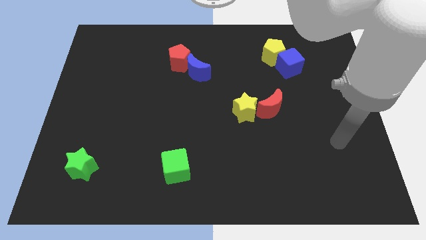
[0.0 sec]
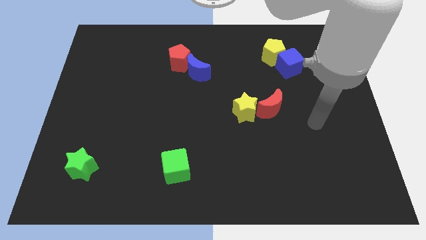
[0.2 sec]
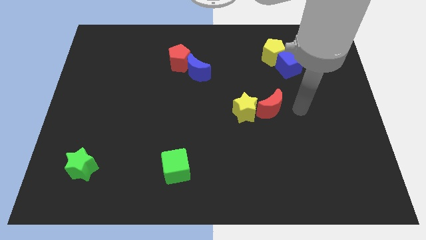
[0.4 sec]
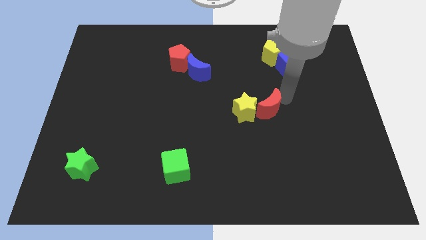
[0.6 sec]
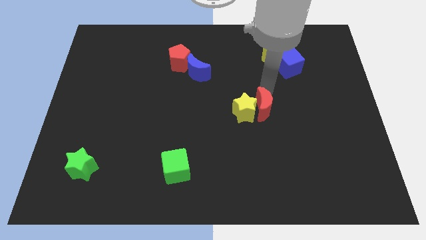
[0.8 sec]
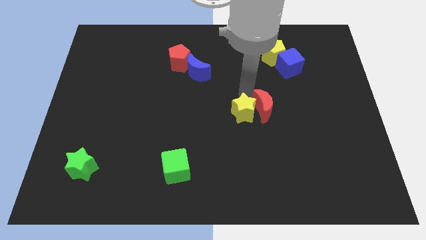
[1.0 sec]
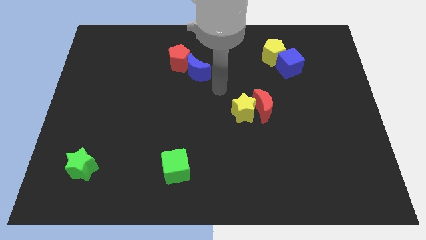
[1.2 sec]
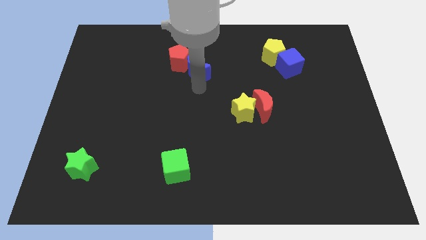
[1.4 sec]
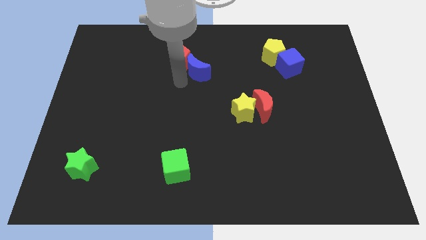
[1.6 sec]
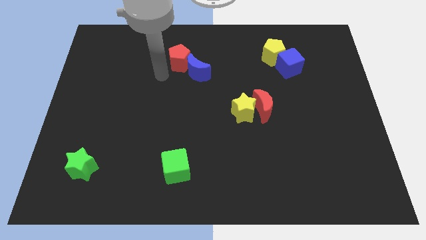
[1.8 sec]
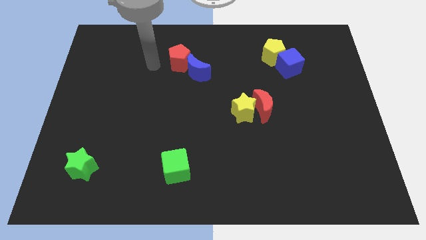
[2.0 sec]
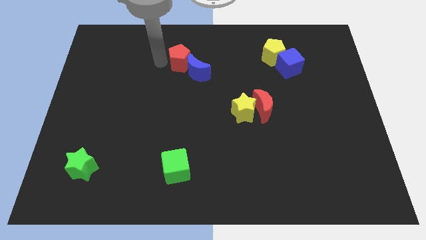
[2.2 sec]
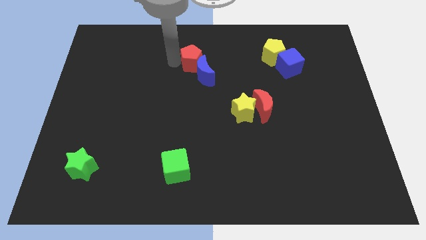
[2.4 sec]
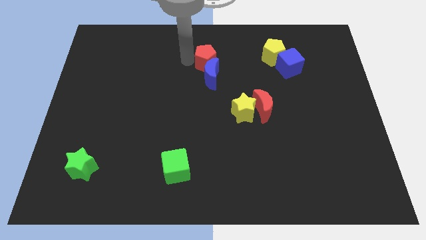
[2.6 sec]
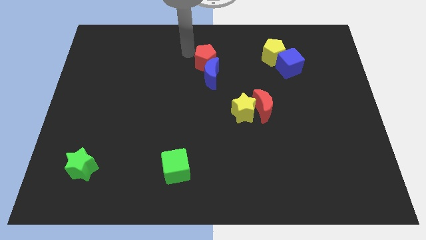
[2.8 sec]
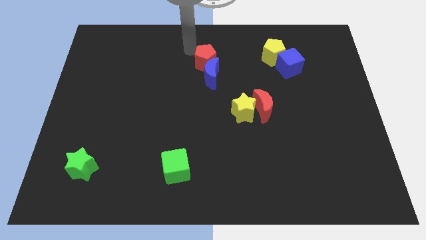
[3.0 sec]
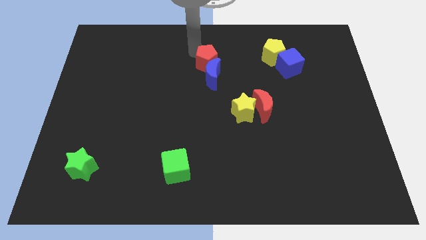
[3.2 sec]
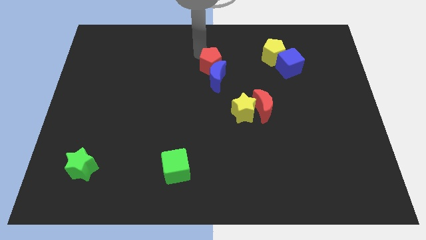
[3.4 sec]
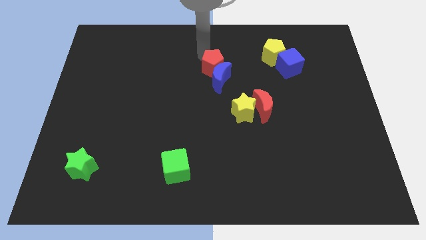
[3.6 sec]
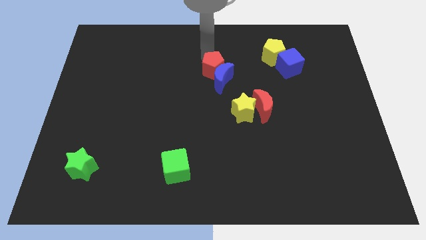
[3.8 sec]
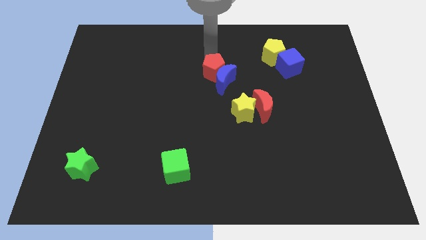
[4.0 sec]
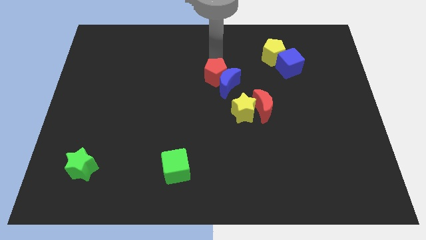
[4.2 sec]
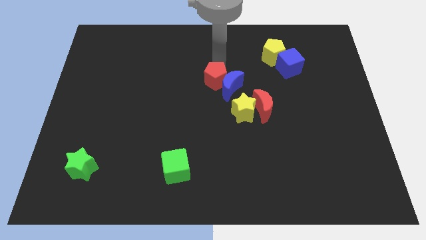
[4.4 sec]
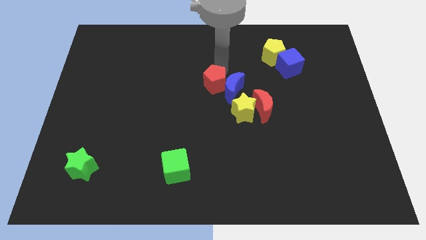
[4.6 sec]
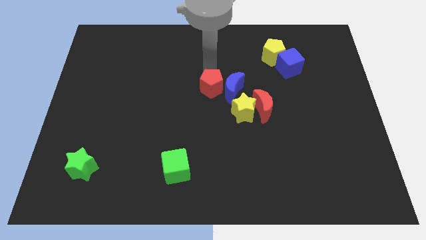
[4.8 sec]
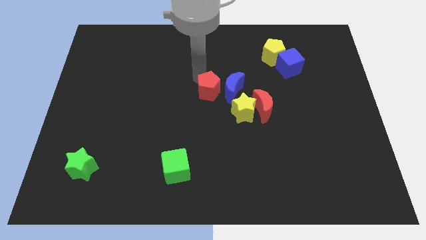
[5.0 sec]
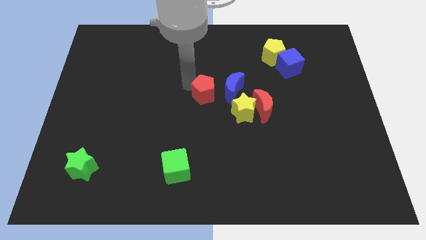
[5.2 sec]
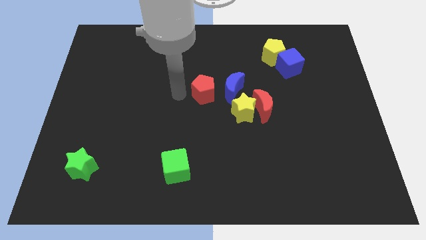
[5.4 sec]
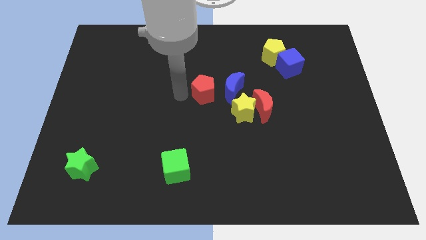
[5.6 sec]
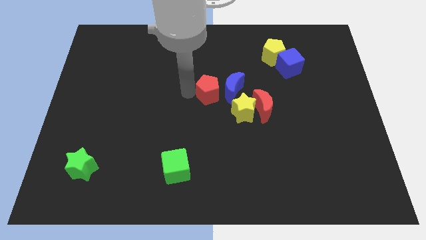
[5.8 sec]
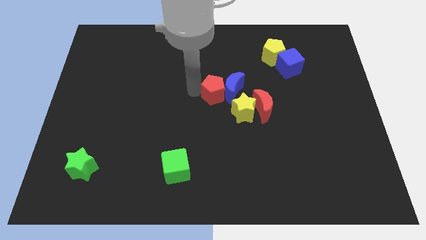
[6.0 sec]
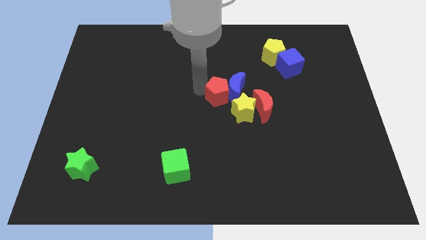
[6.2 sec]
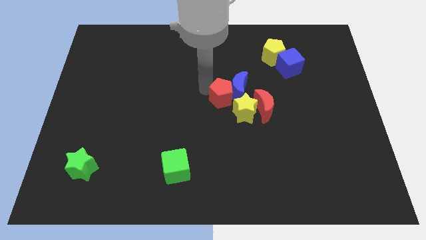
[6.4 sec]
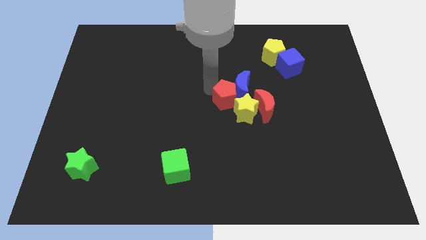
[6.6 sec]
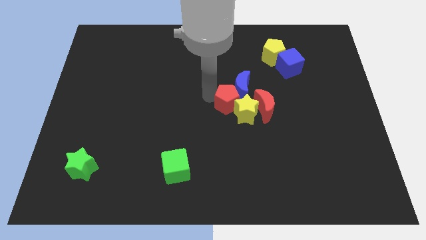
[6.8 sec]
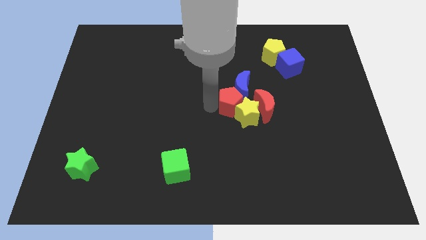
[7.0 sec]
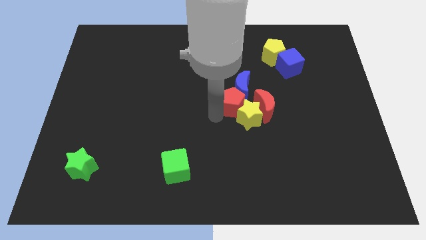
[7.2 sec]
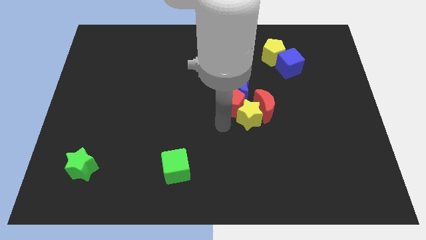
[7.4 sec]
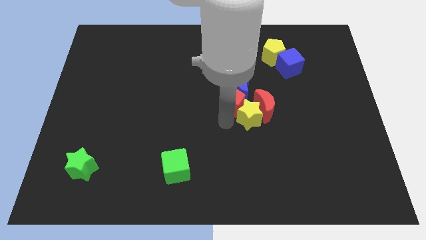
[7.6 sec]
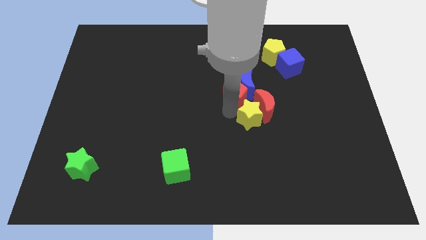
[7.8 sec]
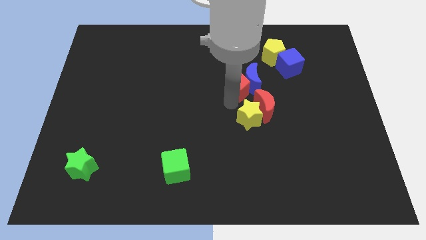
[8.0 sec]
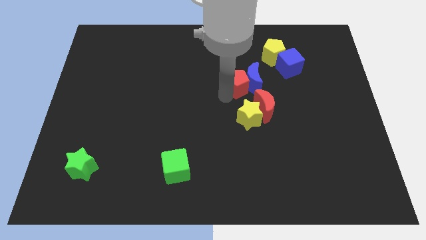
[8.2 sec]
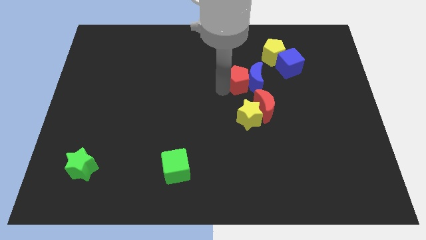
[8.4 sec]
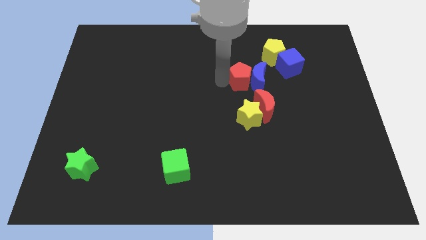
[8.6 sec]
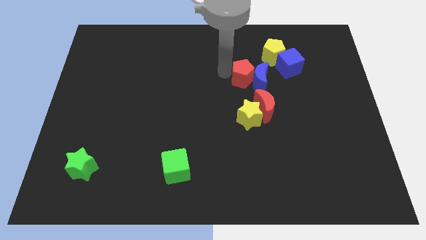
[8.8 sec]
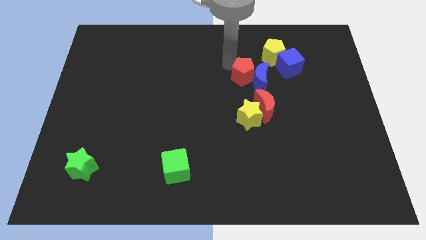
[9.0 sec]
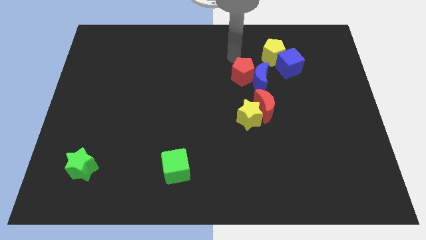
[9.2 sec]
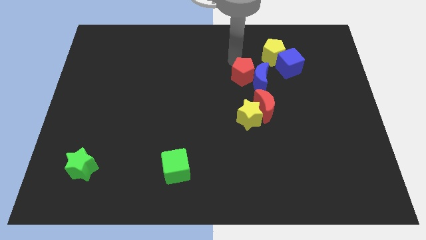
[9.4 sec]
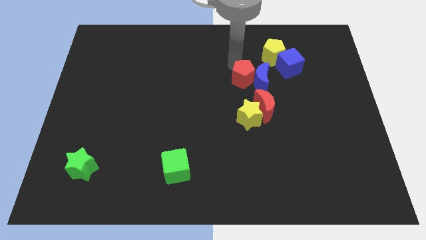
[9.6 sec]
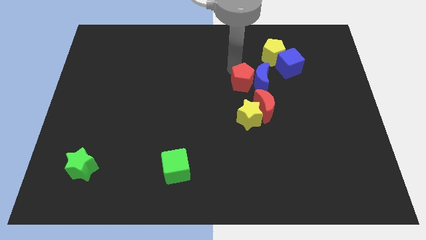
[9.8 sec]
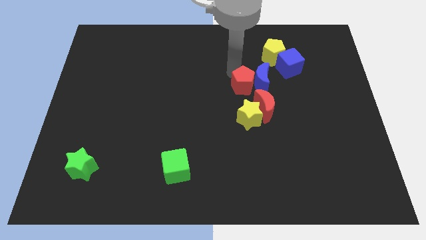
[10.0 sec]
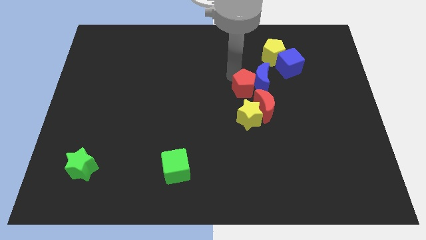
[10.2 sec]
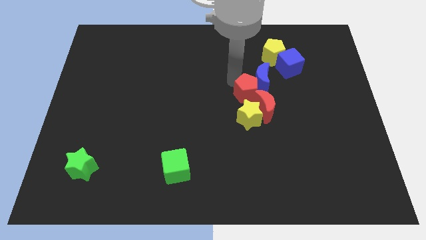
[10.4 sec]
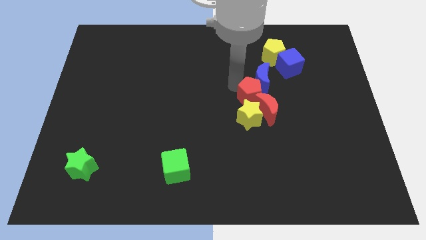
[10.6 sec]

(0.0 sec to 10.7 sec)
put the red pentagon towards the red moon

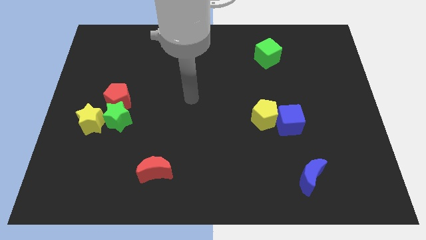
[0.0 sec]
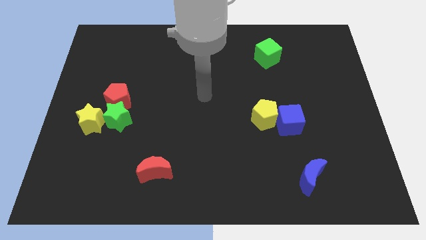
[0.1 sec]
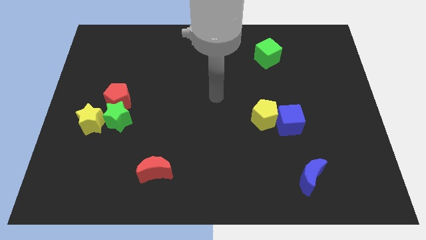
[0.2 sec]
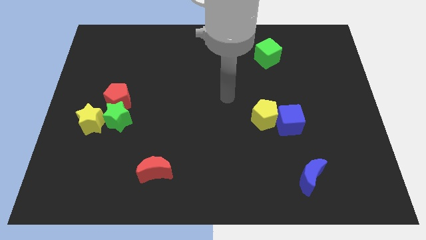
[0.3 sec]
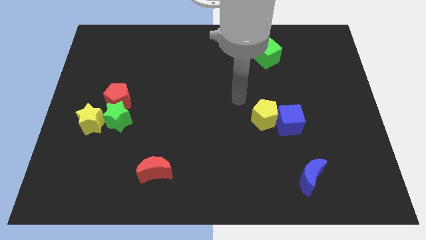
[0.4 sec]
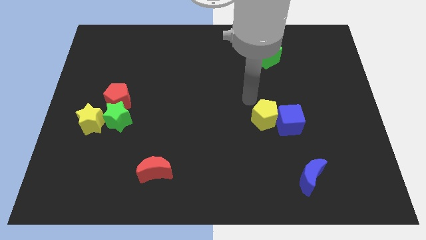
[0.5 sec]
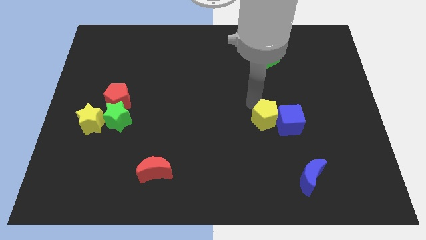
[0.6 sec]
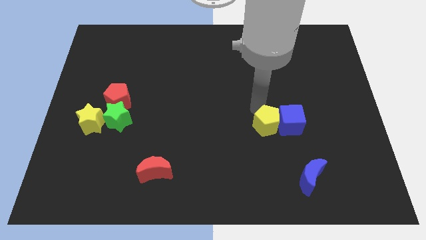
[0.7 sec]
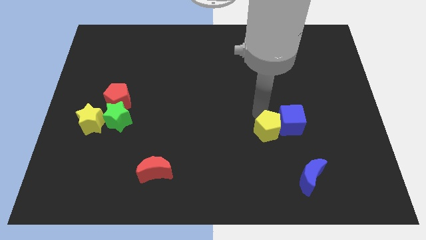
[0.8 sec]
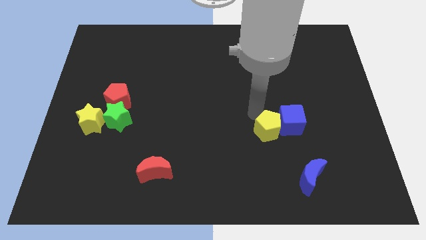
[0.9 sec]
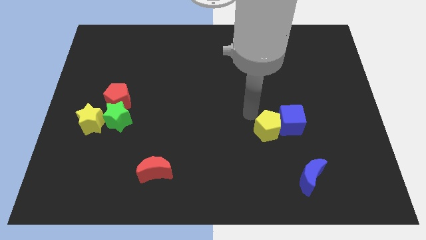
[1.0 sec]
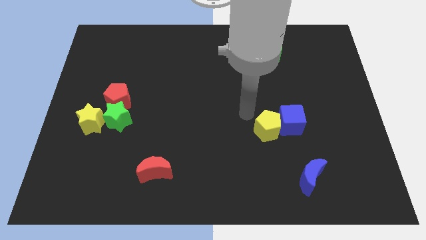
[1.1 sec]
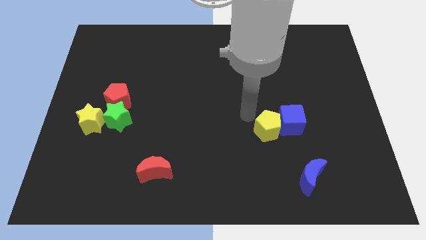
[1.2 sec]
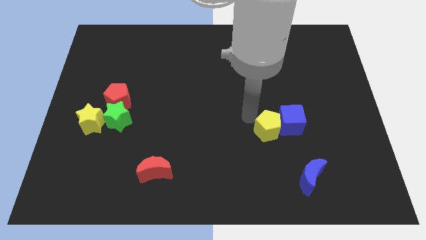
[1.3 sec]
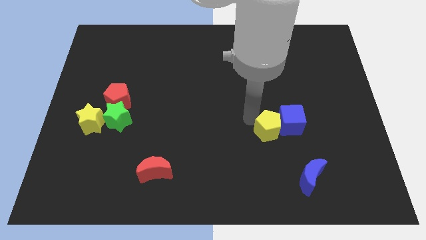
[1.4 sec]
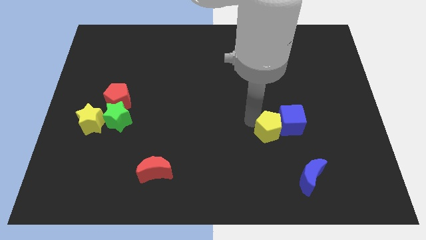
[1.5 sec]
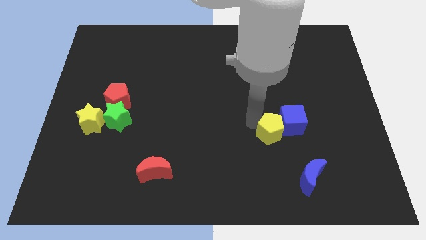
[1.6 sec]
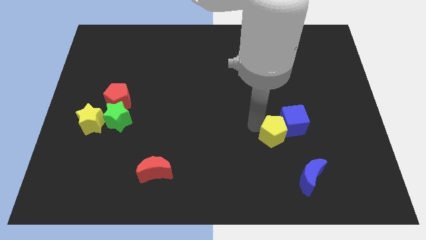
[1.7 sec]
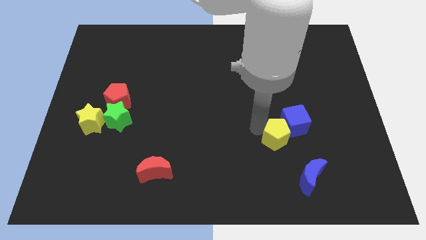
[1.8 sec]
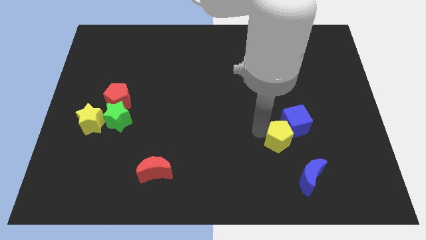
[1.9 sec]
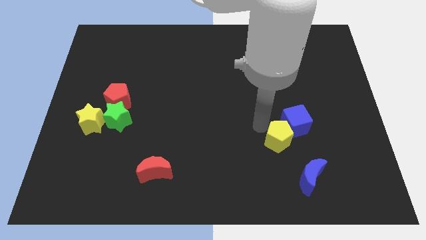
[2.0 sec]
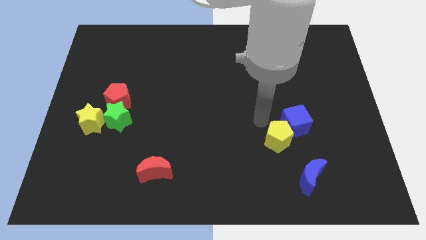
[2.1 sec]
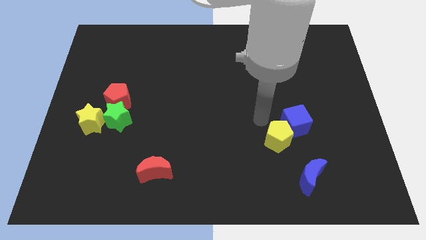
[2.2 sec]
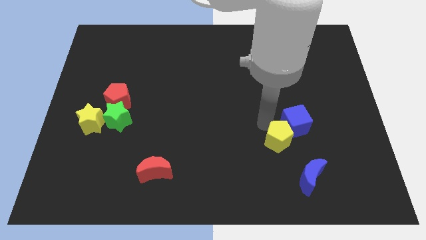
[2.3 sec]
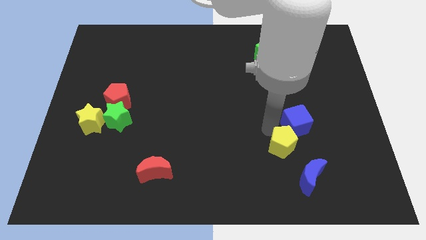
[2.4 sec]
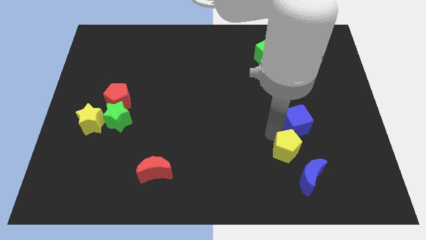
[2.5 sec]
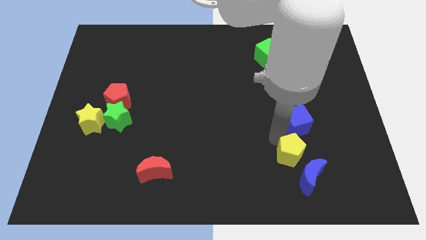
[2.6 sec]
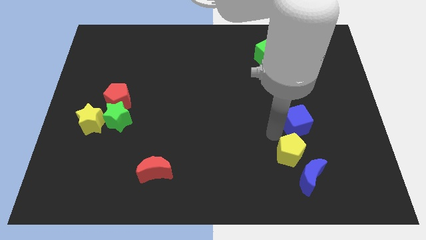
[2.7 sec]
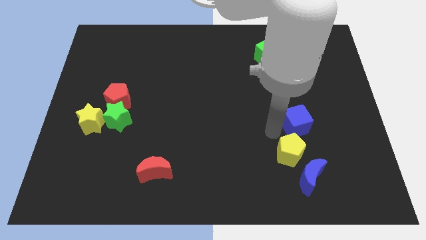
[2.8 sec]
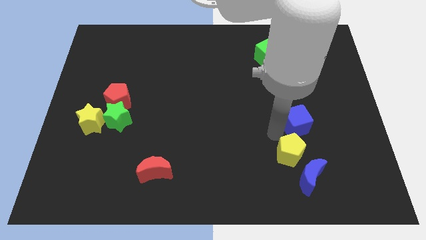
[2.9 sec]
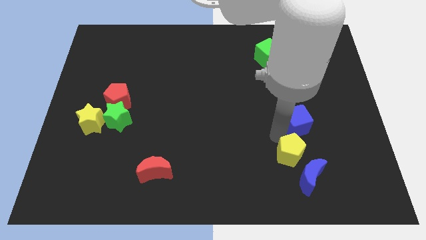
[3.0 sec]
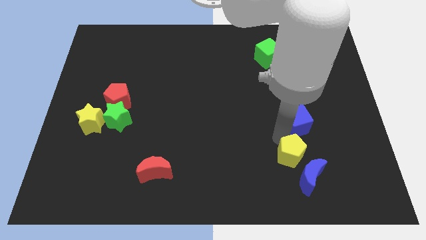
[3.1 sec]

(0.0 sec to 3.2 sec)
push the yellow pentagon towards the blue moon
